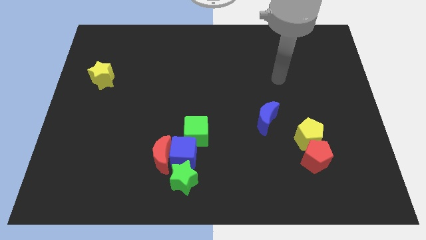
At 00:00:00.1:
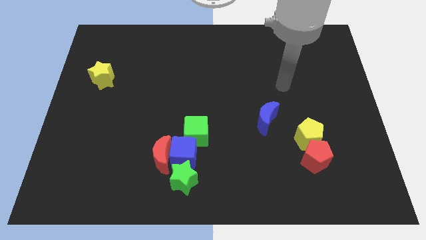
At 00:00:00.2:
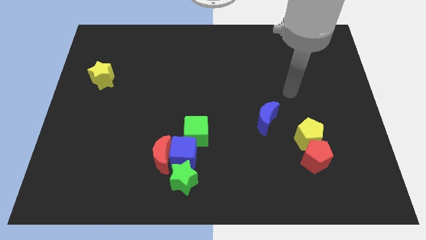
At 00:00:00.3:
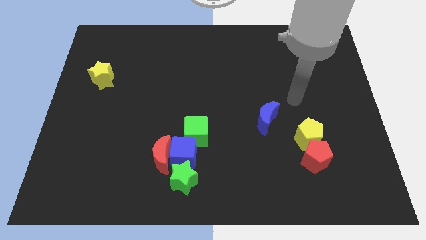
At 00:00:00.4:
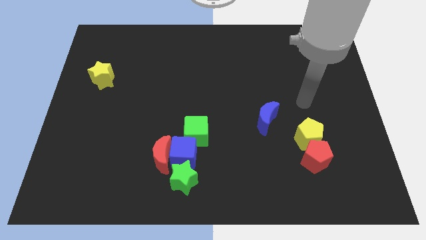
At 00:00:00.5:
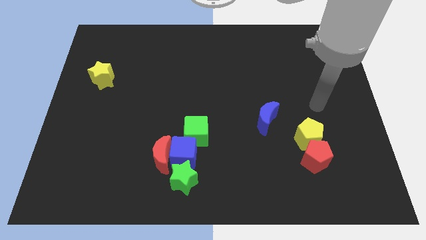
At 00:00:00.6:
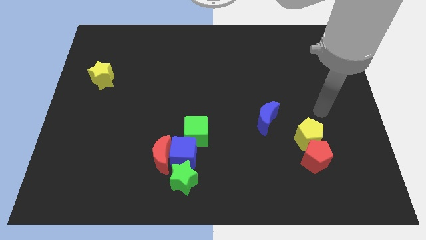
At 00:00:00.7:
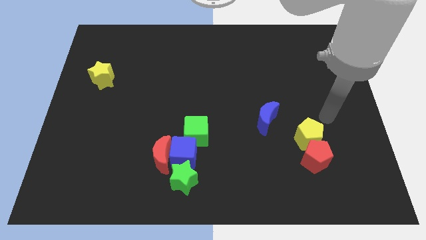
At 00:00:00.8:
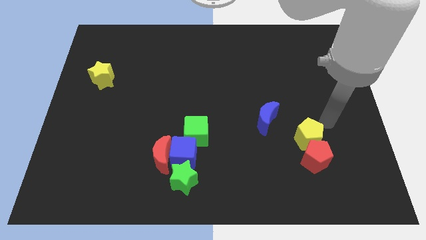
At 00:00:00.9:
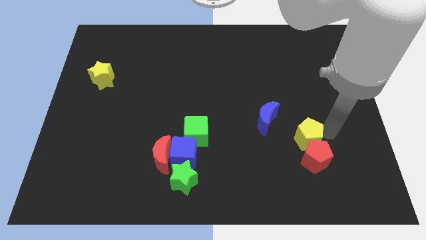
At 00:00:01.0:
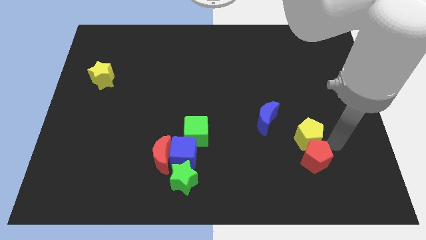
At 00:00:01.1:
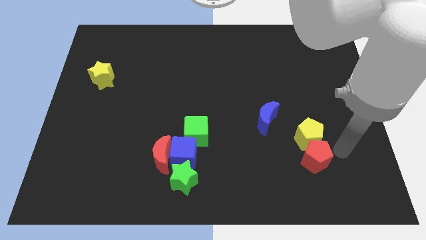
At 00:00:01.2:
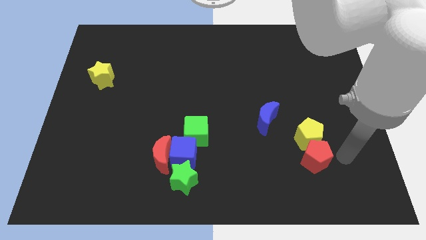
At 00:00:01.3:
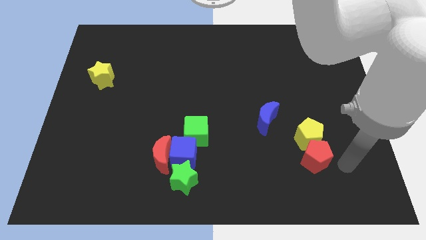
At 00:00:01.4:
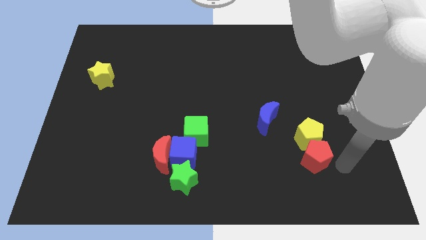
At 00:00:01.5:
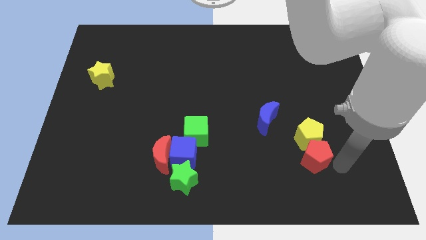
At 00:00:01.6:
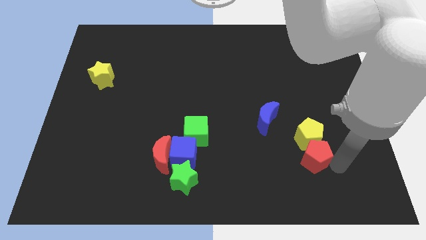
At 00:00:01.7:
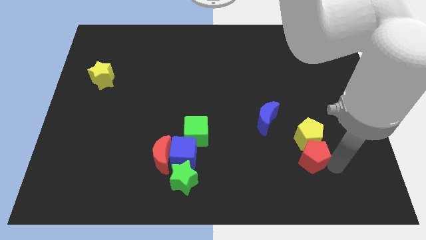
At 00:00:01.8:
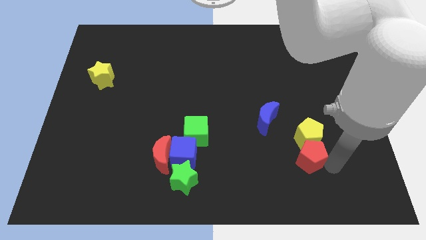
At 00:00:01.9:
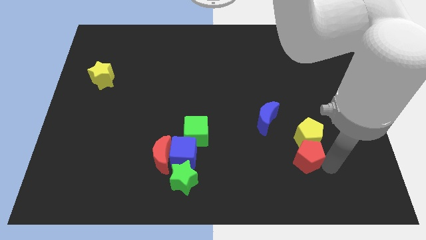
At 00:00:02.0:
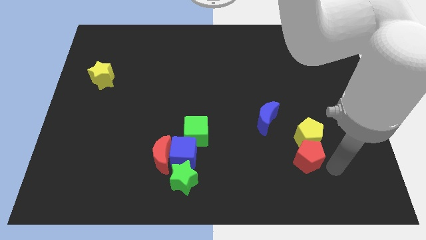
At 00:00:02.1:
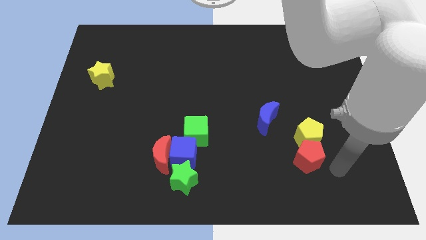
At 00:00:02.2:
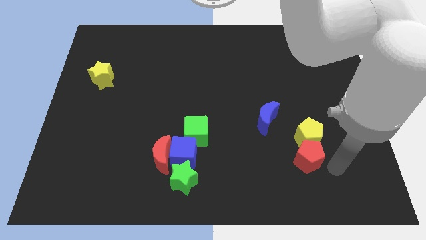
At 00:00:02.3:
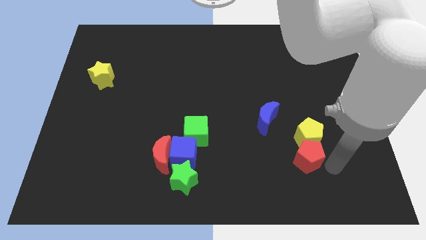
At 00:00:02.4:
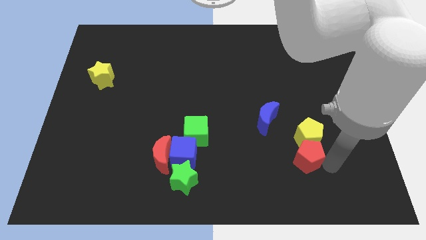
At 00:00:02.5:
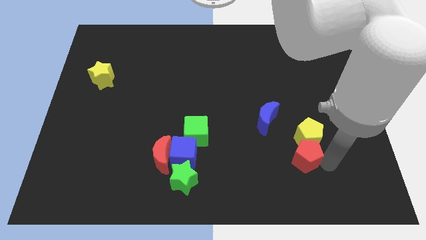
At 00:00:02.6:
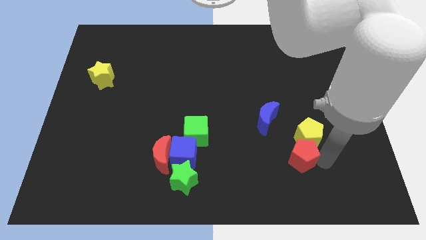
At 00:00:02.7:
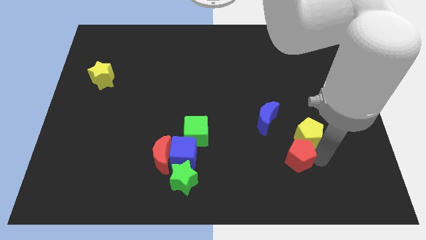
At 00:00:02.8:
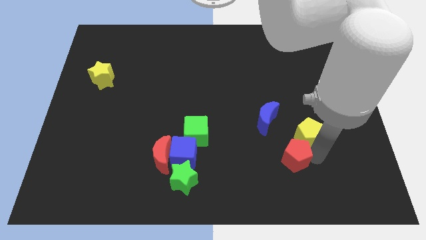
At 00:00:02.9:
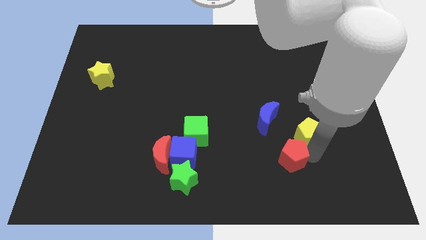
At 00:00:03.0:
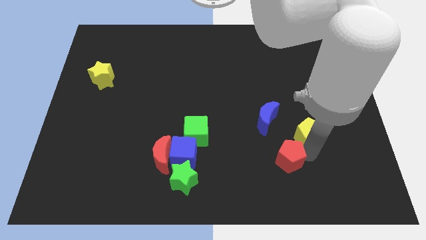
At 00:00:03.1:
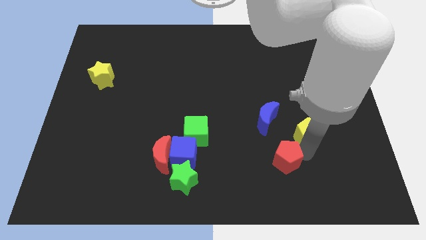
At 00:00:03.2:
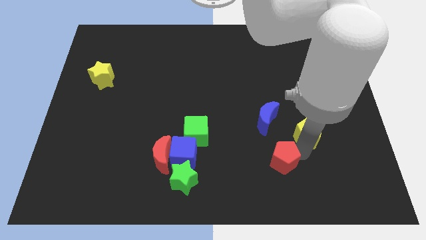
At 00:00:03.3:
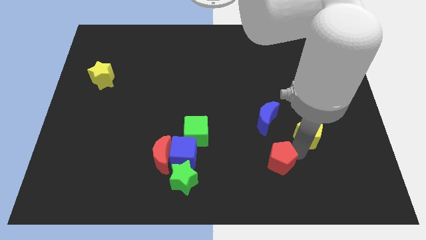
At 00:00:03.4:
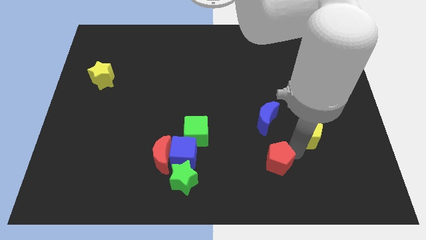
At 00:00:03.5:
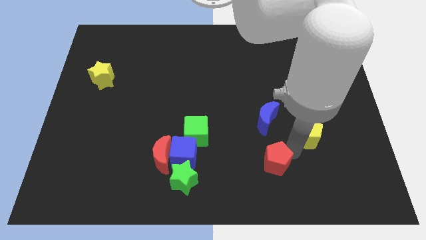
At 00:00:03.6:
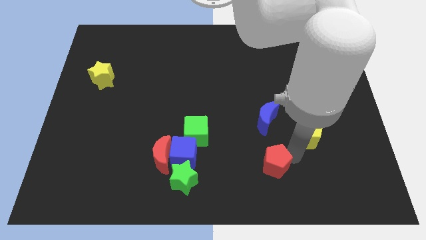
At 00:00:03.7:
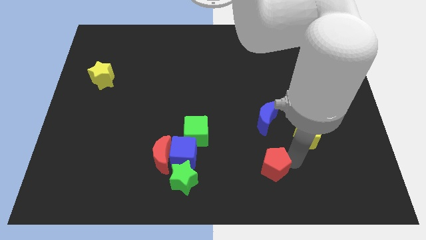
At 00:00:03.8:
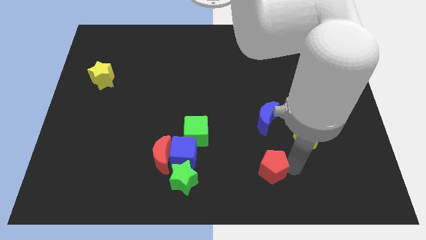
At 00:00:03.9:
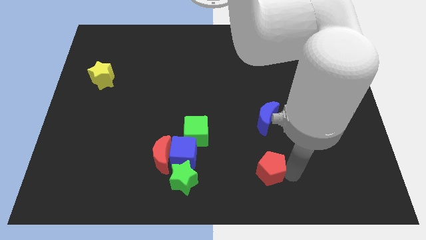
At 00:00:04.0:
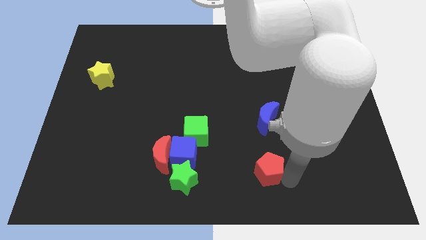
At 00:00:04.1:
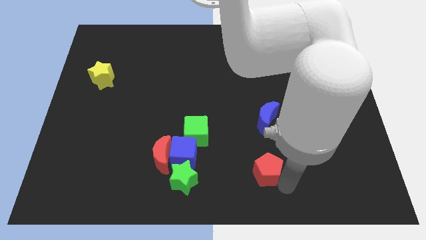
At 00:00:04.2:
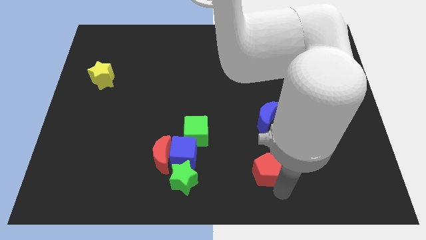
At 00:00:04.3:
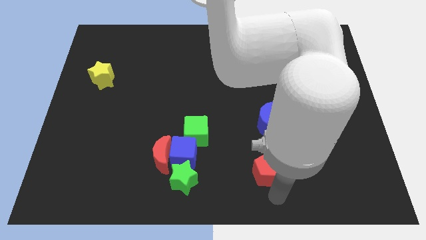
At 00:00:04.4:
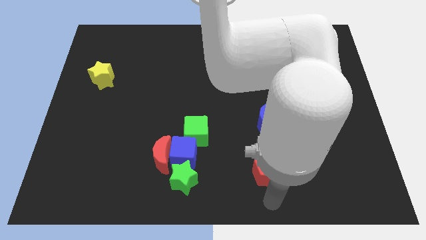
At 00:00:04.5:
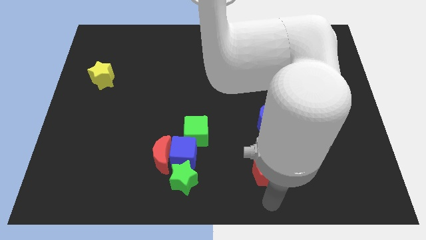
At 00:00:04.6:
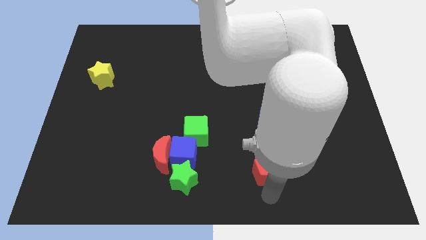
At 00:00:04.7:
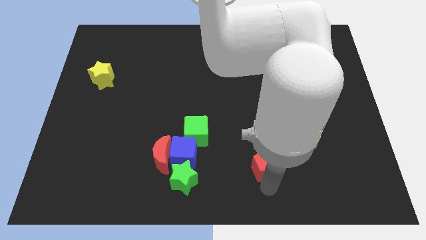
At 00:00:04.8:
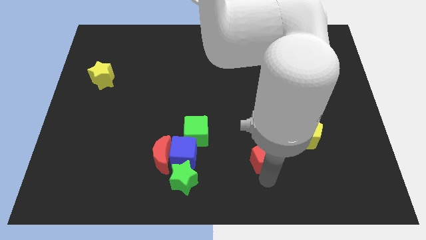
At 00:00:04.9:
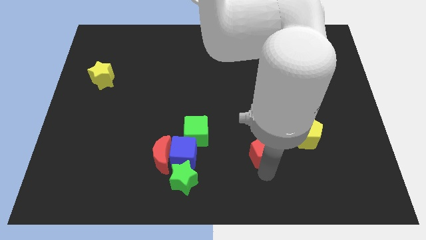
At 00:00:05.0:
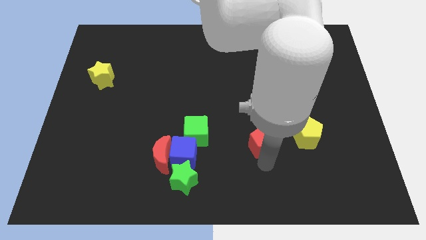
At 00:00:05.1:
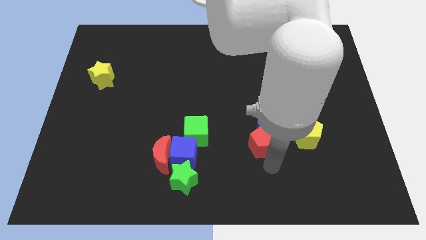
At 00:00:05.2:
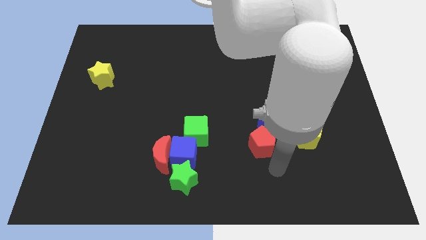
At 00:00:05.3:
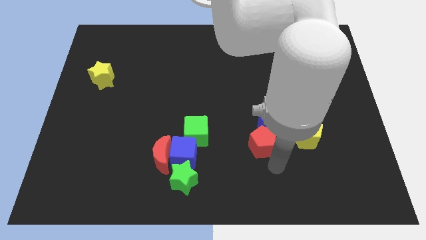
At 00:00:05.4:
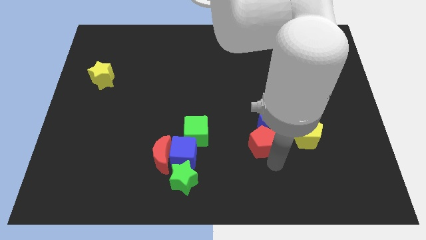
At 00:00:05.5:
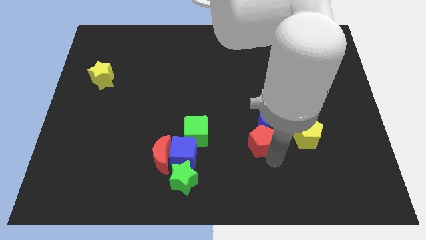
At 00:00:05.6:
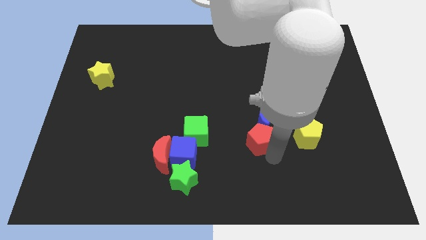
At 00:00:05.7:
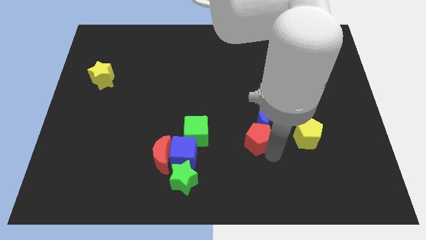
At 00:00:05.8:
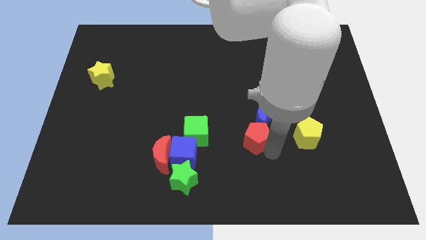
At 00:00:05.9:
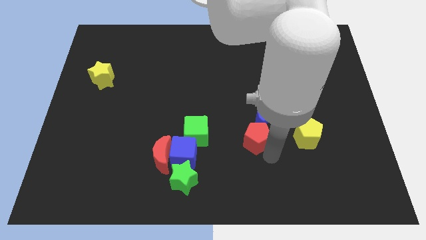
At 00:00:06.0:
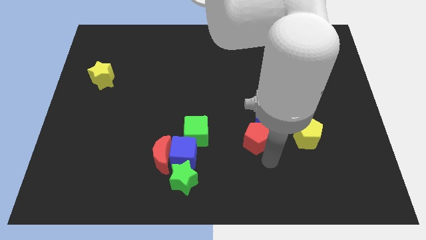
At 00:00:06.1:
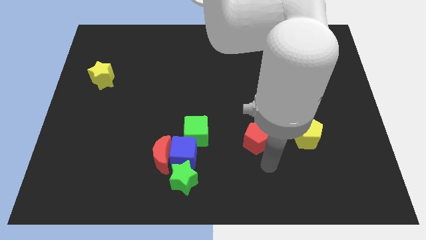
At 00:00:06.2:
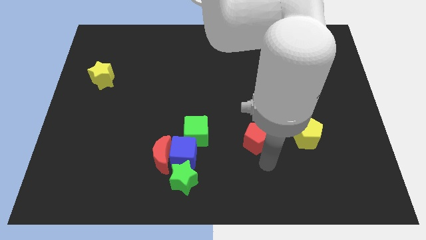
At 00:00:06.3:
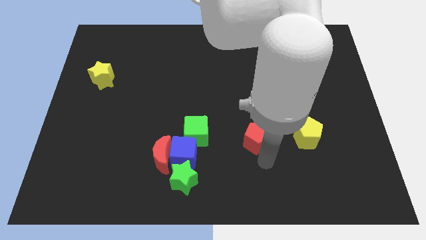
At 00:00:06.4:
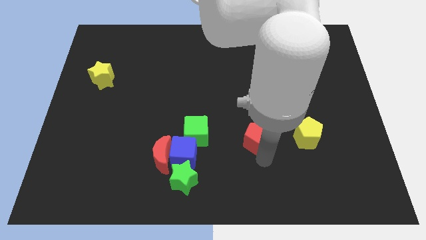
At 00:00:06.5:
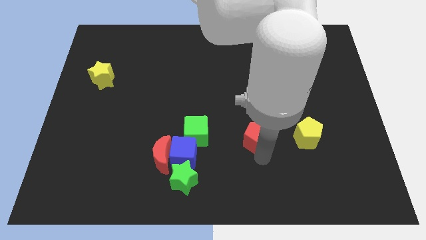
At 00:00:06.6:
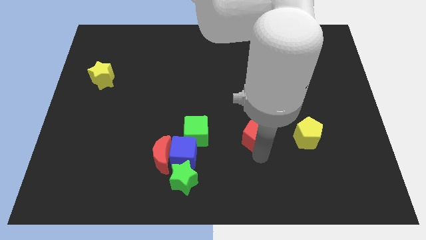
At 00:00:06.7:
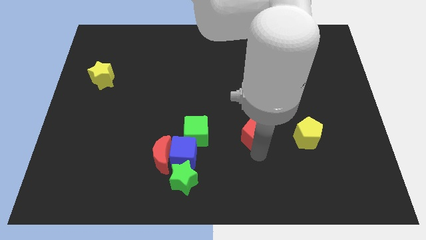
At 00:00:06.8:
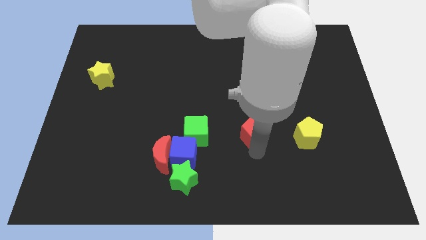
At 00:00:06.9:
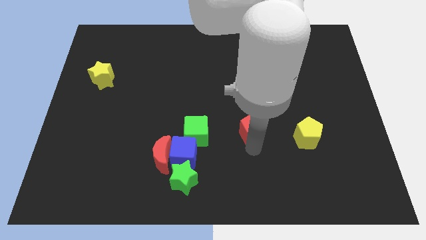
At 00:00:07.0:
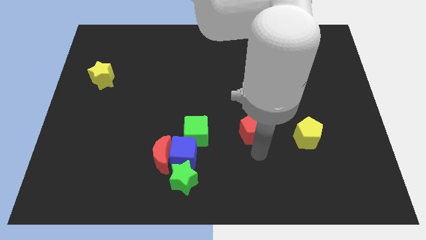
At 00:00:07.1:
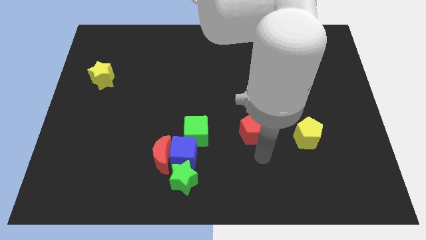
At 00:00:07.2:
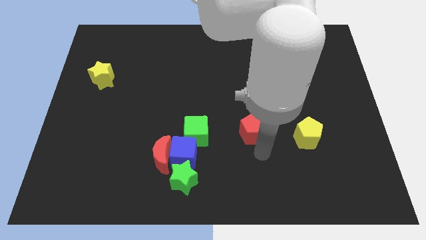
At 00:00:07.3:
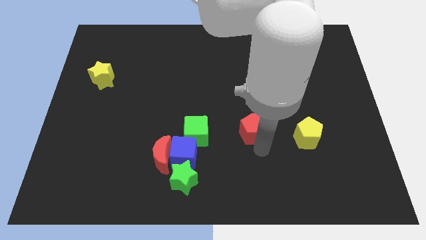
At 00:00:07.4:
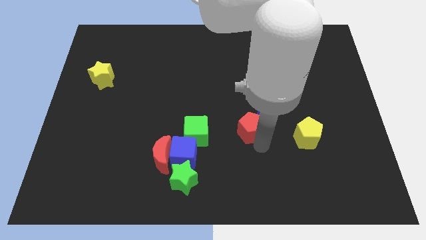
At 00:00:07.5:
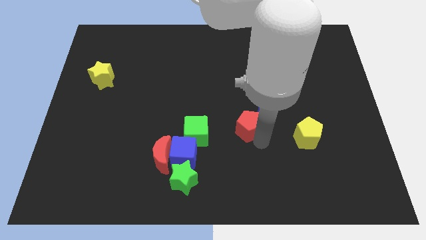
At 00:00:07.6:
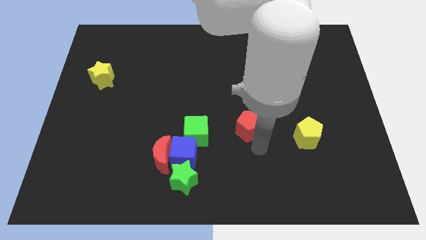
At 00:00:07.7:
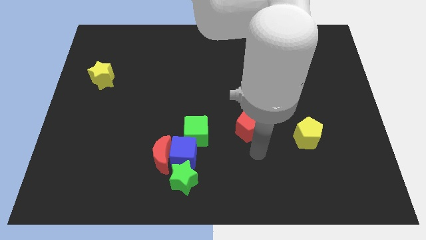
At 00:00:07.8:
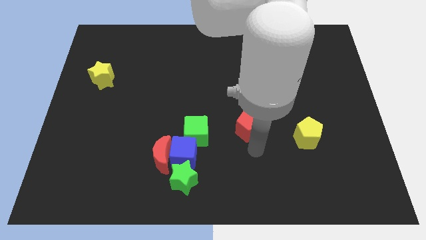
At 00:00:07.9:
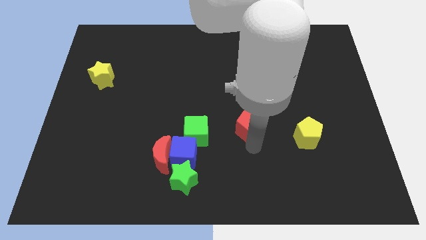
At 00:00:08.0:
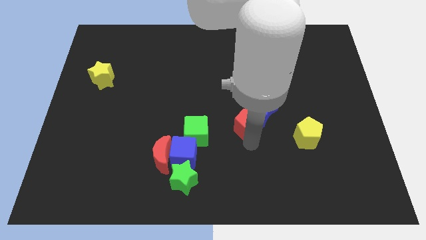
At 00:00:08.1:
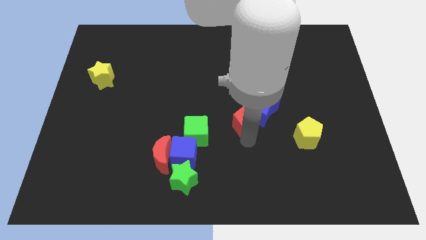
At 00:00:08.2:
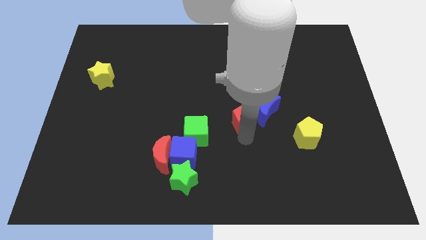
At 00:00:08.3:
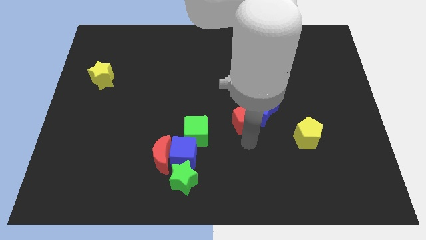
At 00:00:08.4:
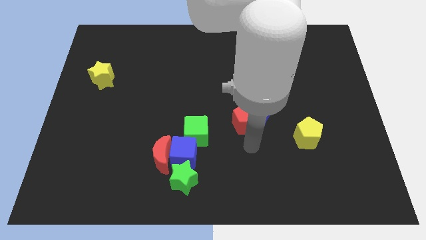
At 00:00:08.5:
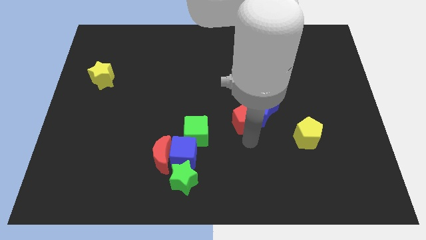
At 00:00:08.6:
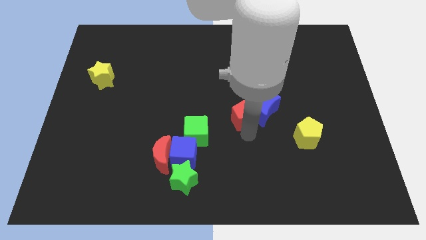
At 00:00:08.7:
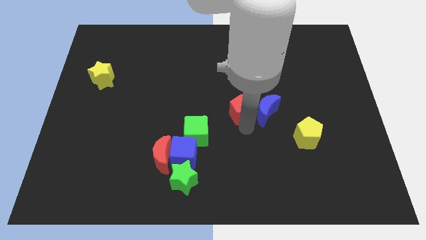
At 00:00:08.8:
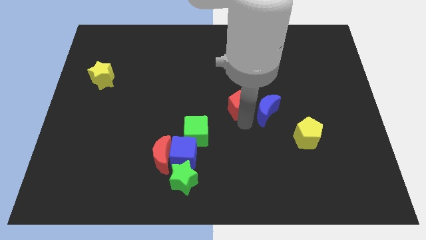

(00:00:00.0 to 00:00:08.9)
slide the red pentagon up and then left
